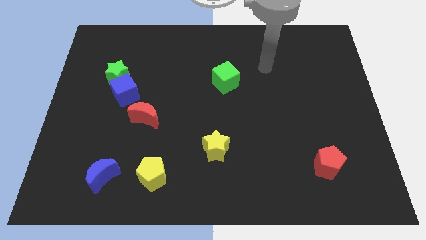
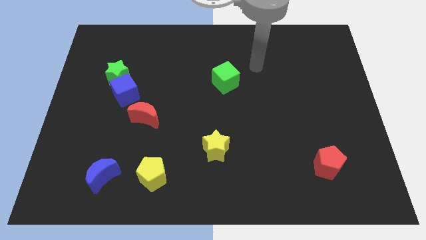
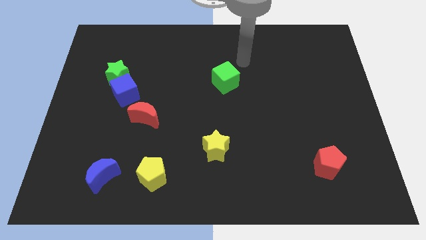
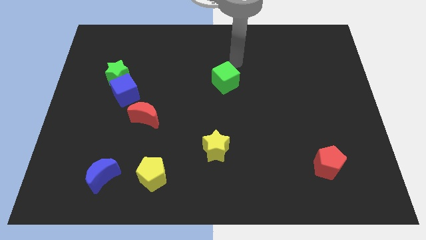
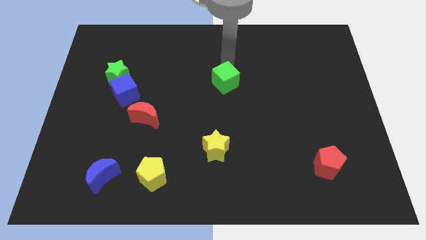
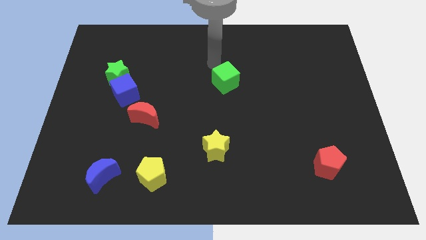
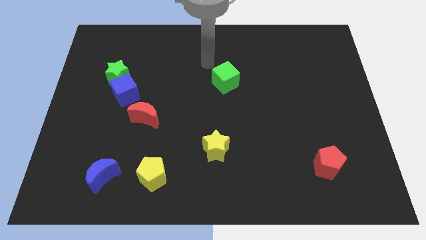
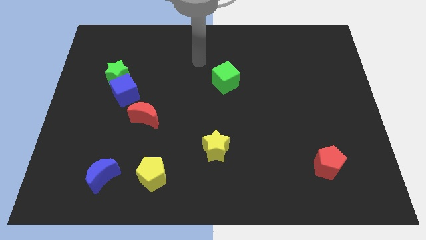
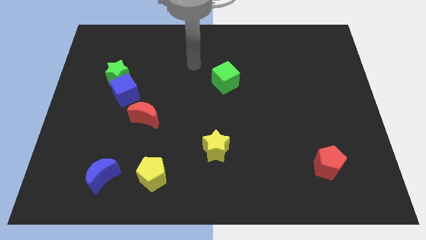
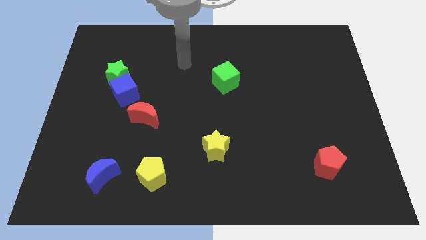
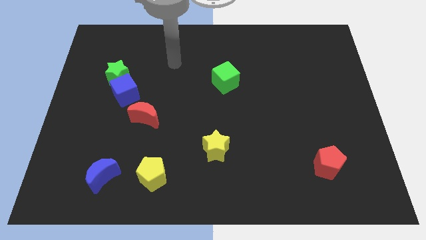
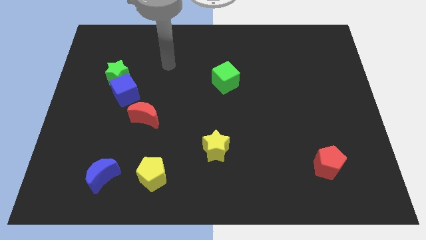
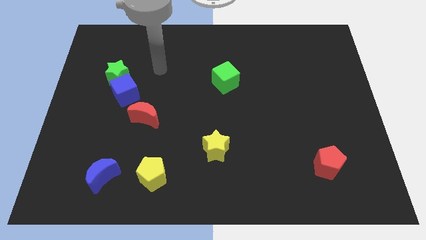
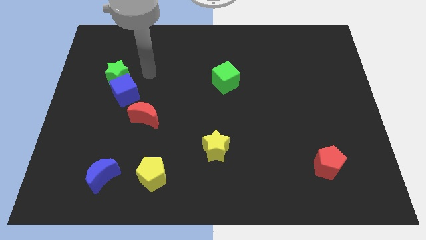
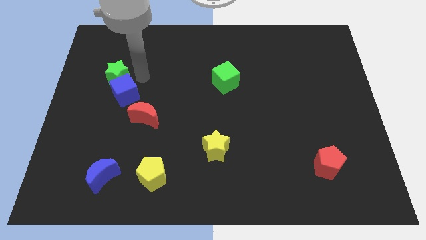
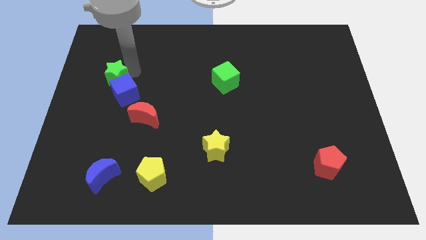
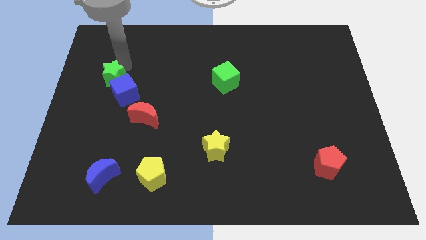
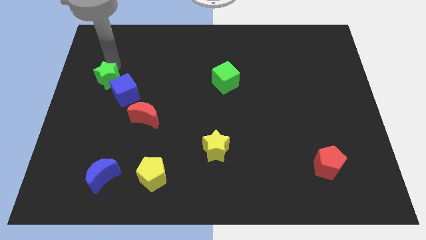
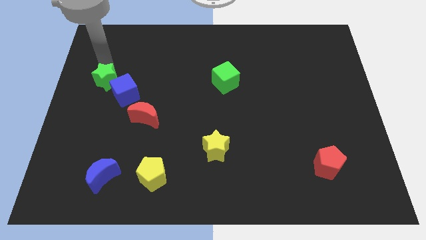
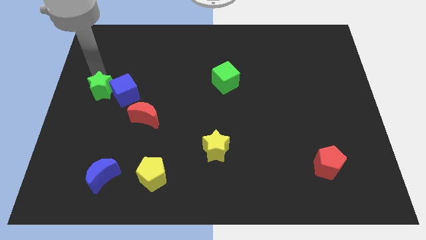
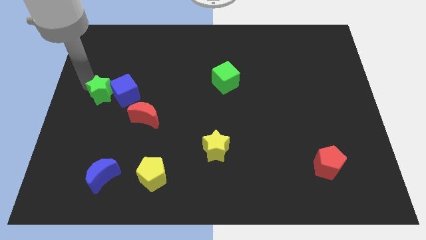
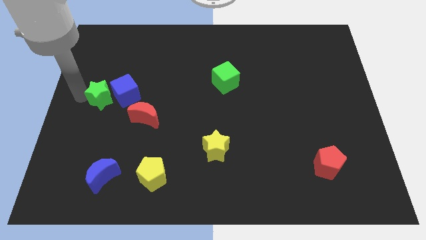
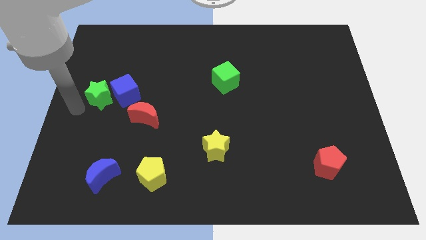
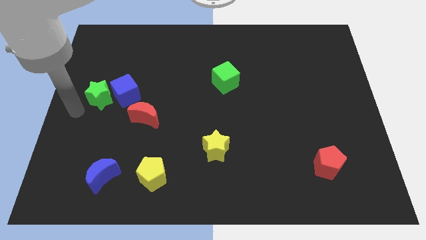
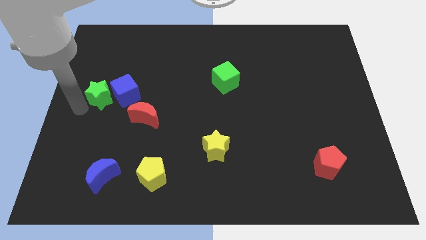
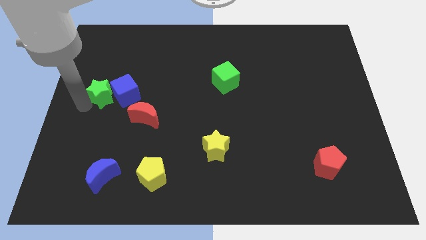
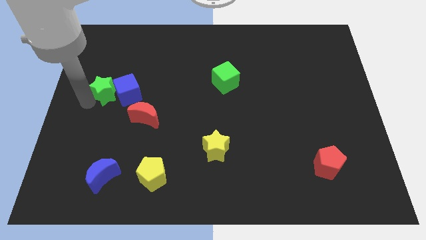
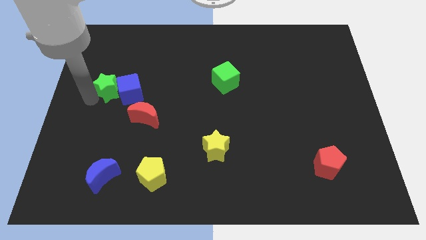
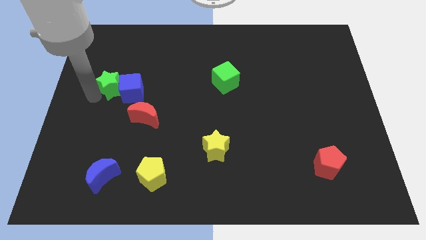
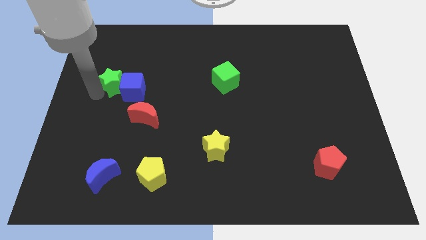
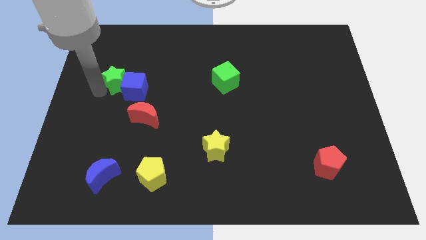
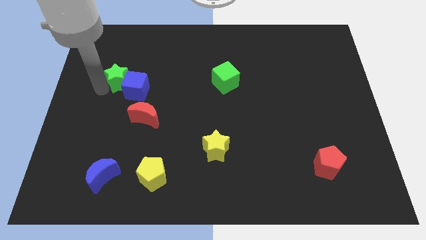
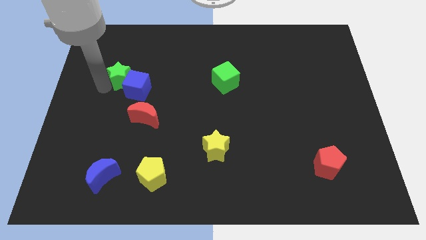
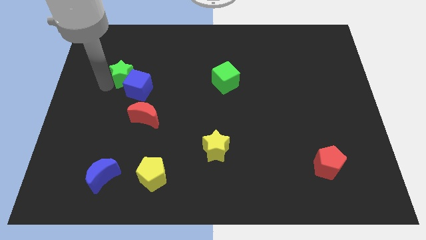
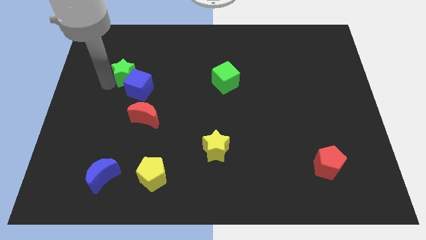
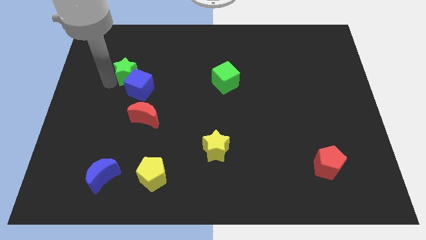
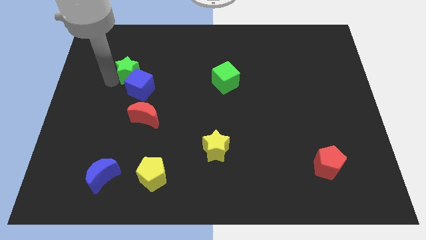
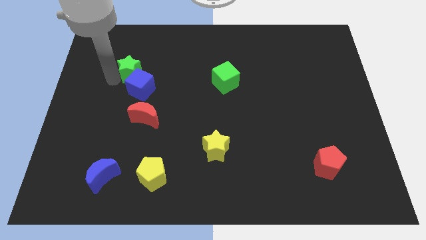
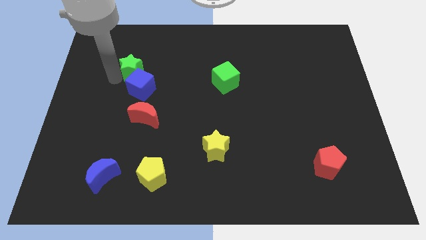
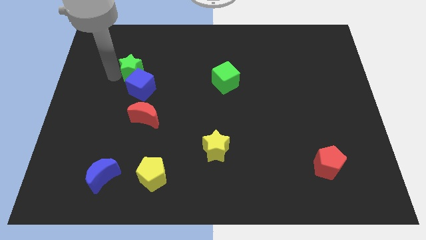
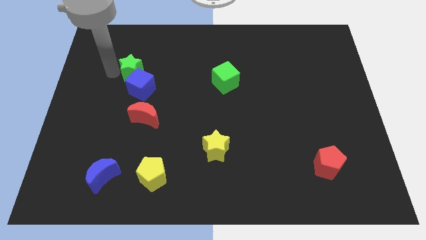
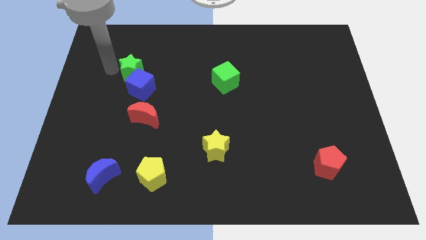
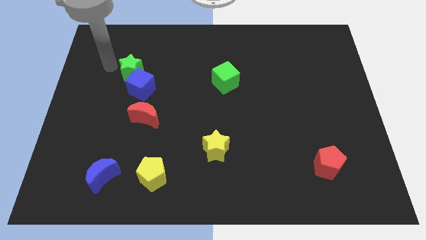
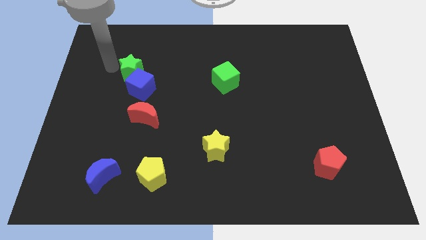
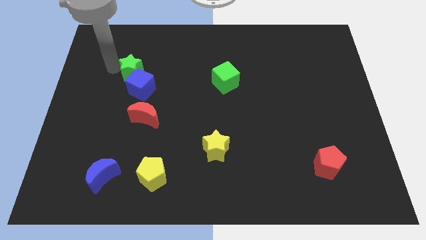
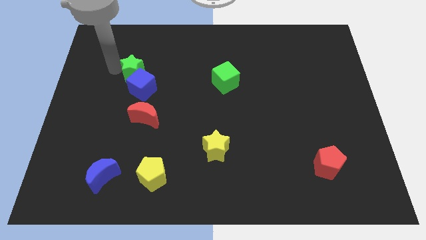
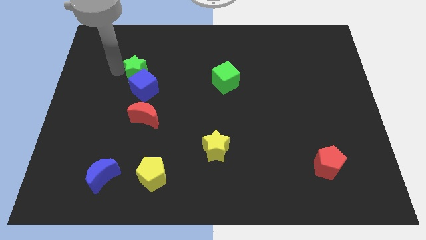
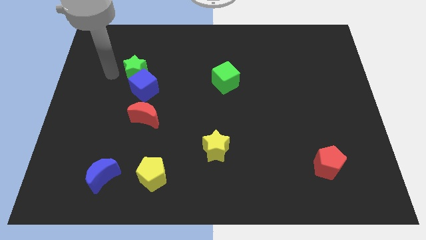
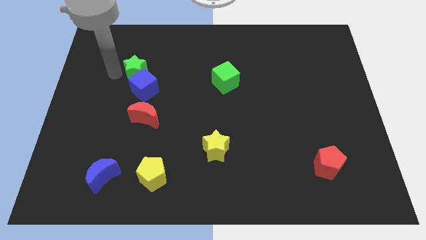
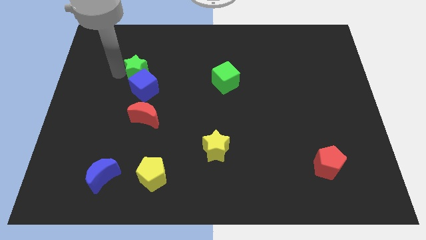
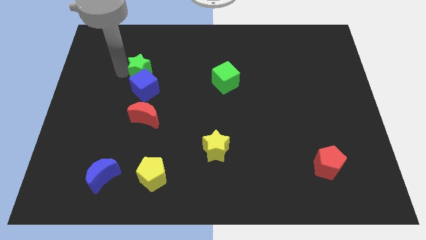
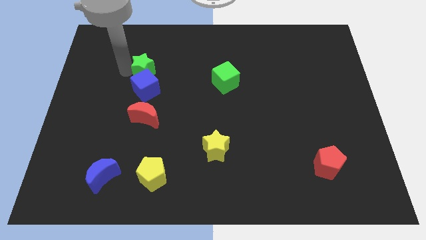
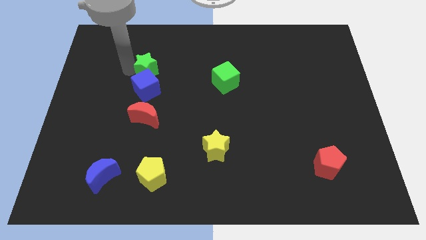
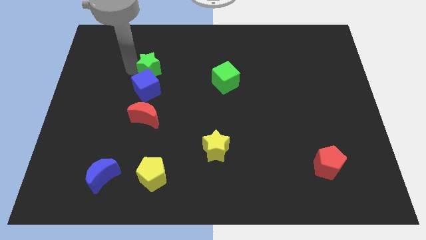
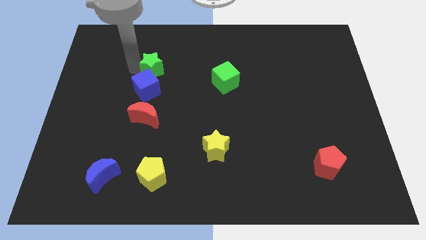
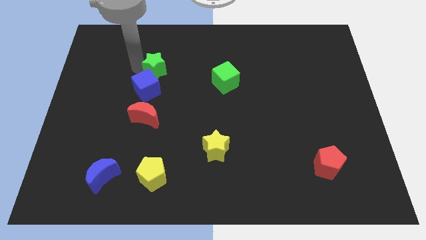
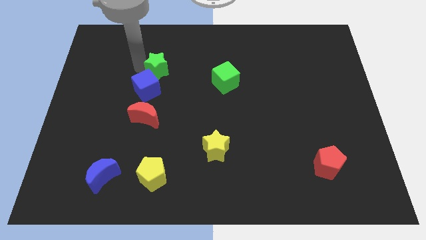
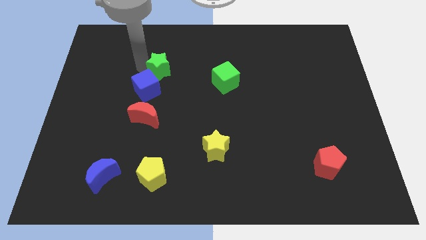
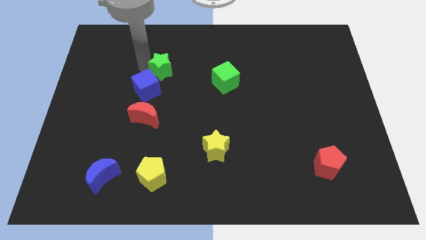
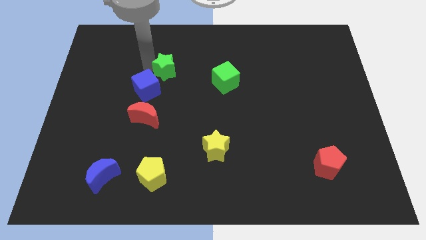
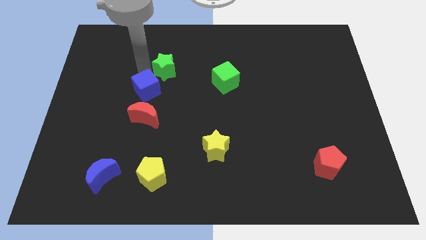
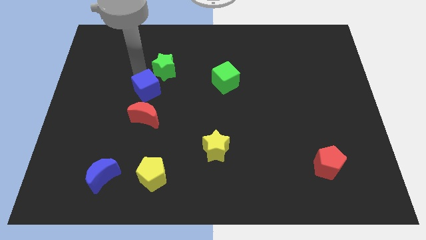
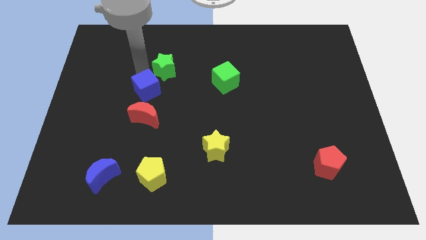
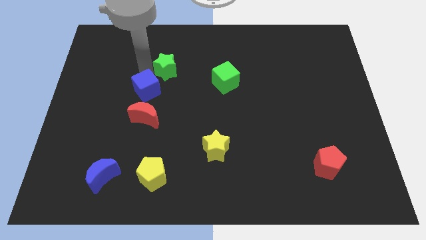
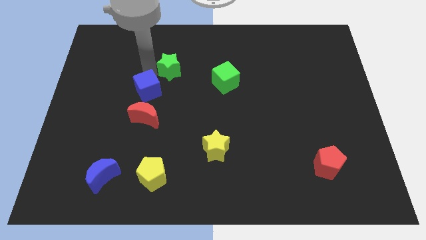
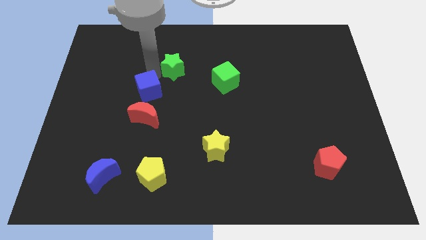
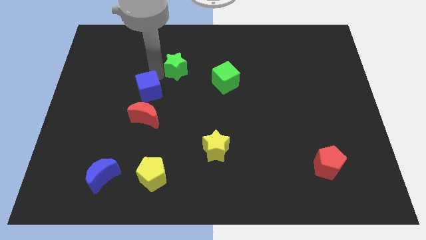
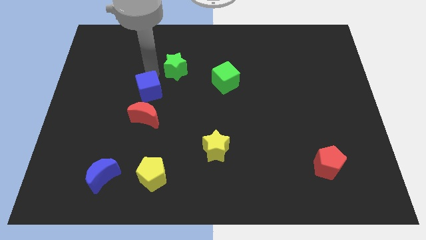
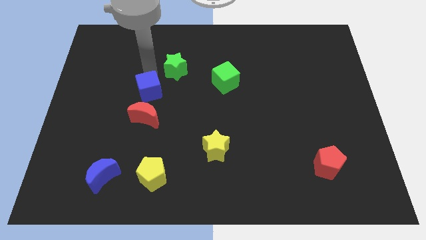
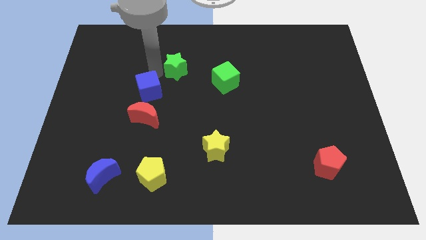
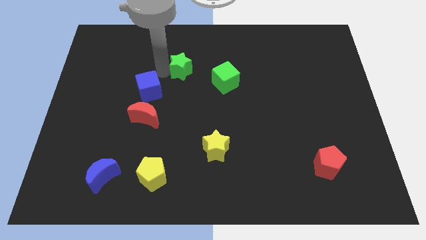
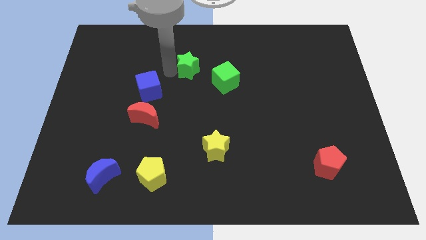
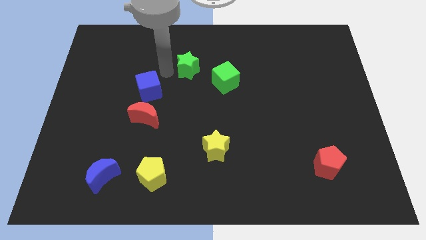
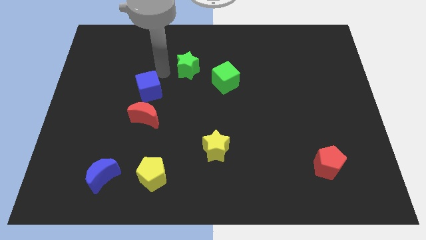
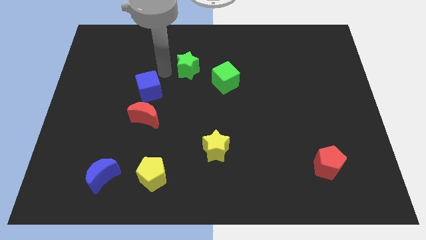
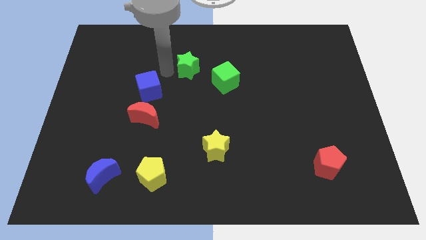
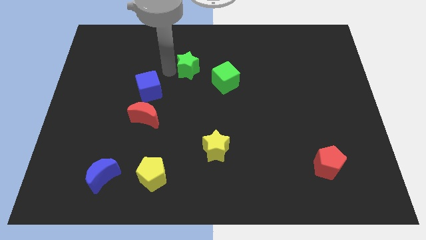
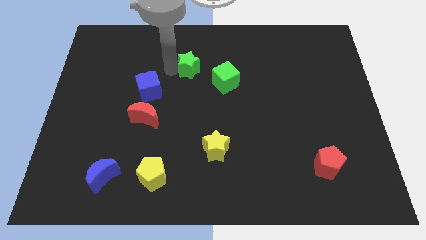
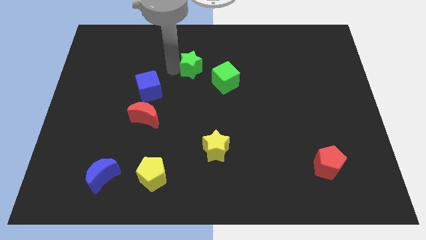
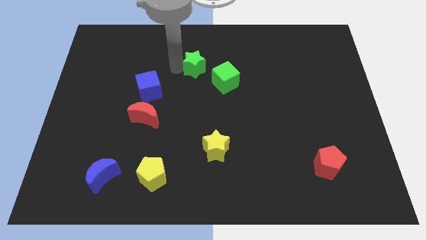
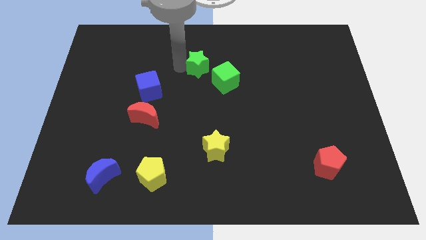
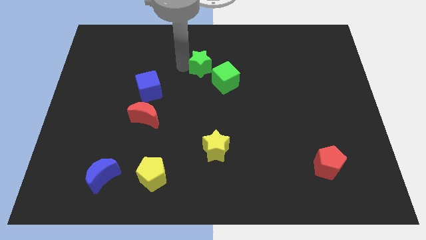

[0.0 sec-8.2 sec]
push the green star to the right
